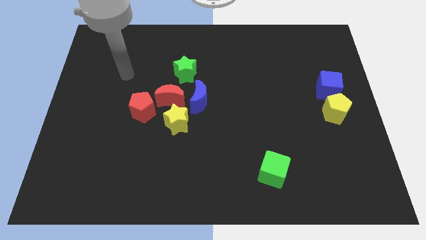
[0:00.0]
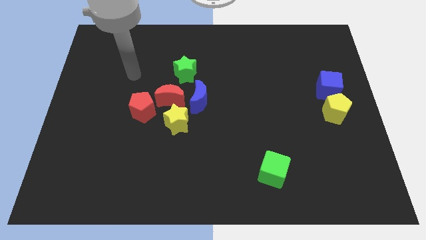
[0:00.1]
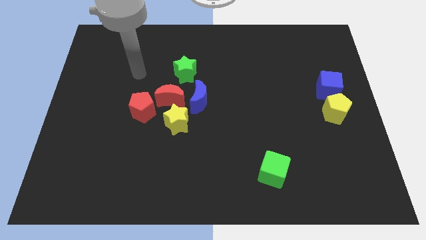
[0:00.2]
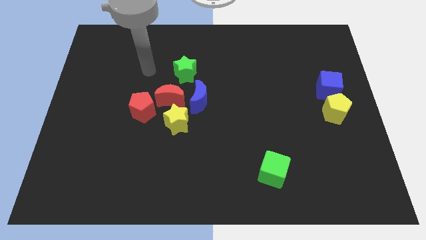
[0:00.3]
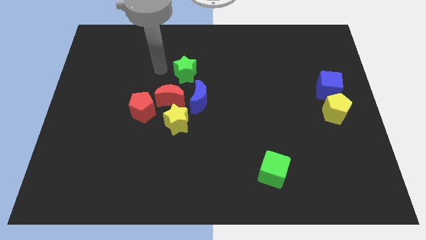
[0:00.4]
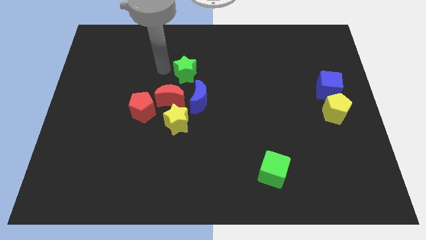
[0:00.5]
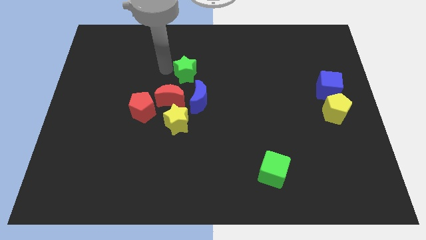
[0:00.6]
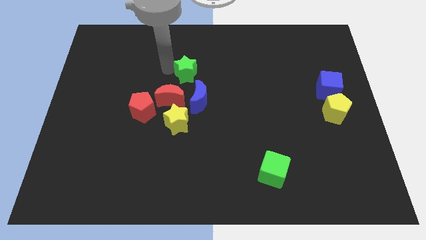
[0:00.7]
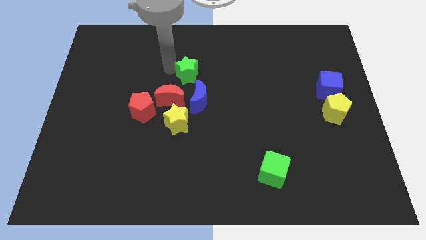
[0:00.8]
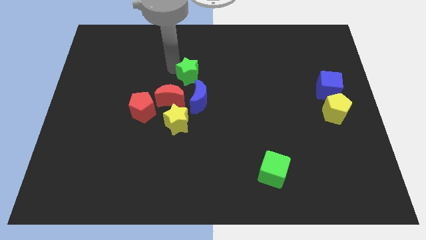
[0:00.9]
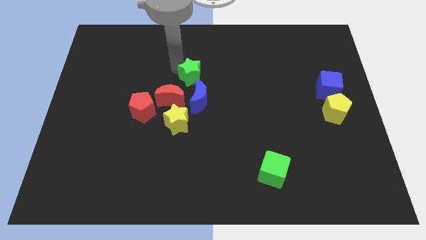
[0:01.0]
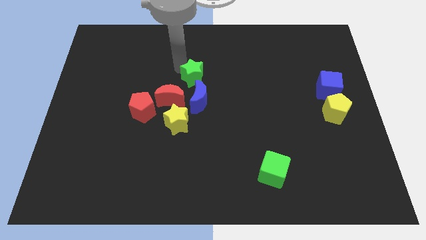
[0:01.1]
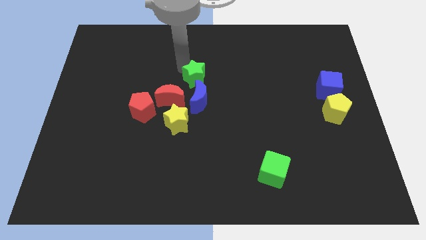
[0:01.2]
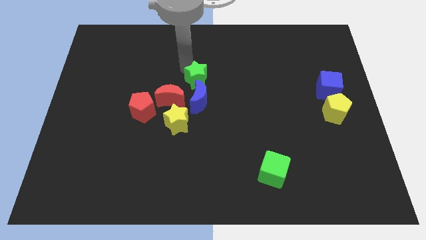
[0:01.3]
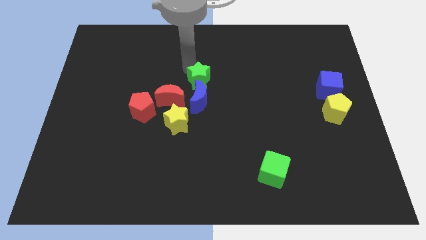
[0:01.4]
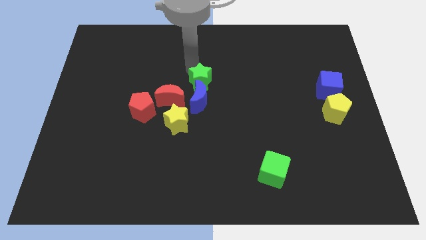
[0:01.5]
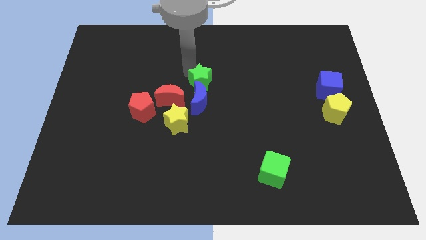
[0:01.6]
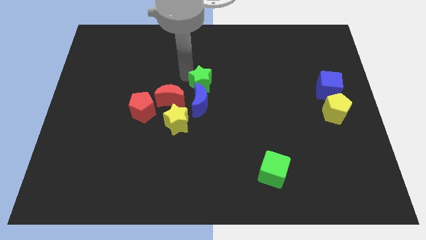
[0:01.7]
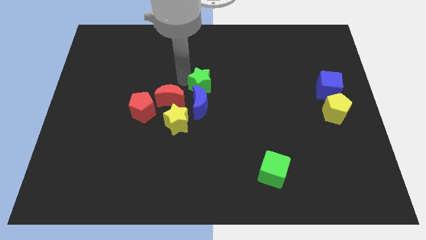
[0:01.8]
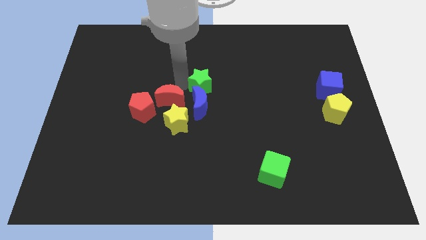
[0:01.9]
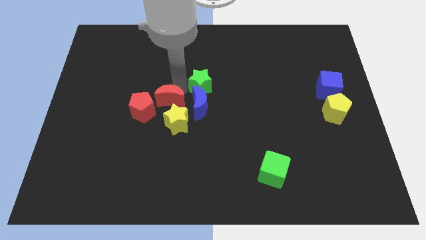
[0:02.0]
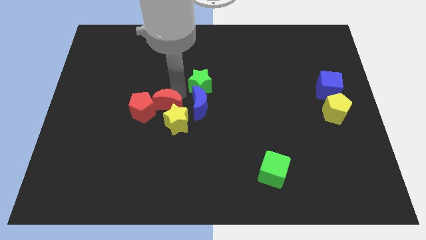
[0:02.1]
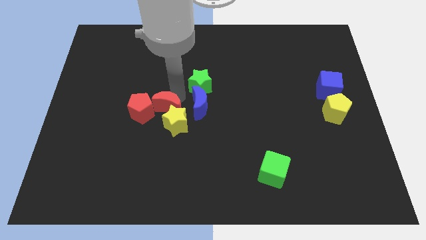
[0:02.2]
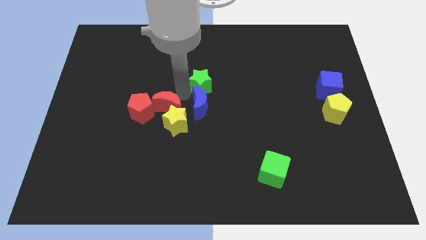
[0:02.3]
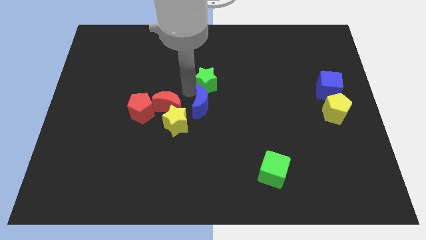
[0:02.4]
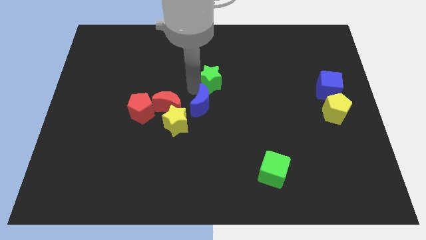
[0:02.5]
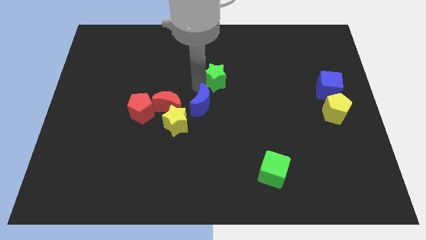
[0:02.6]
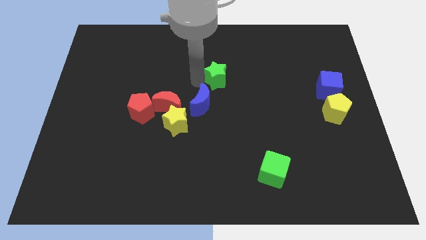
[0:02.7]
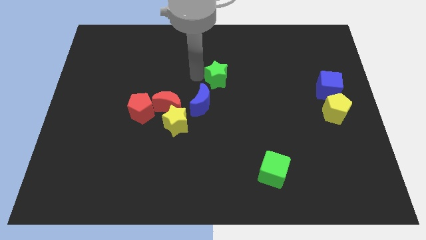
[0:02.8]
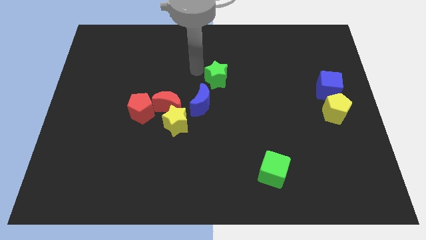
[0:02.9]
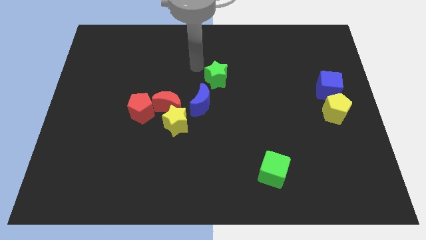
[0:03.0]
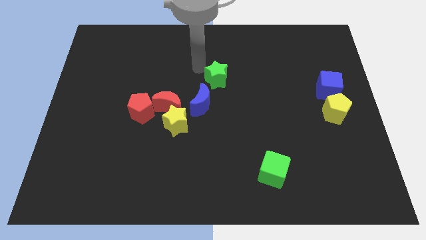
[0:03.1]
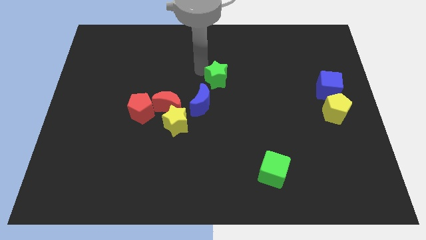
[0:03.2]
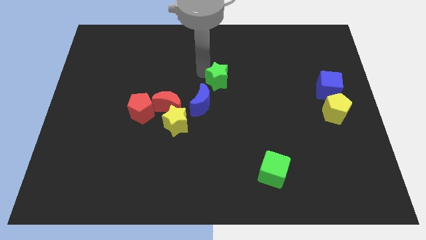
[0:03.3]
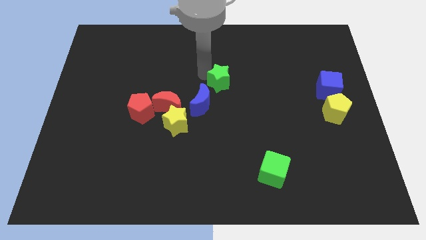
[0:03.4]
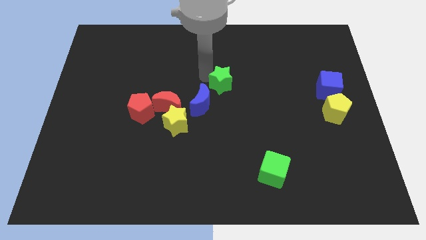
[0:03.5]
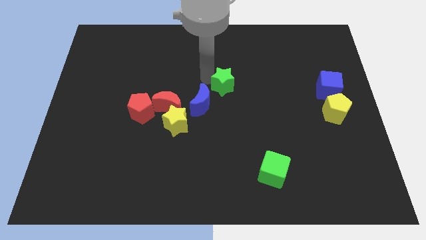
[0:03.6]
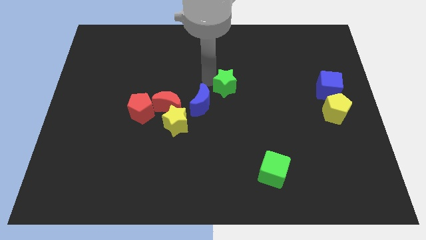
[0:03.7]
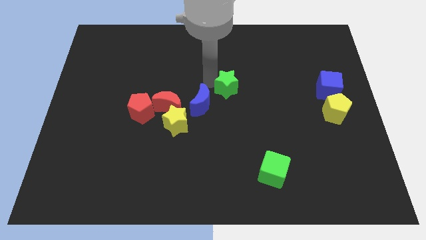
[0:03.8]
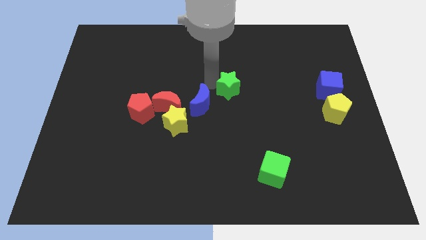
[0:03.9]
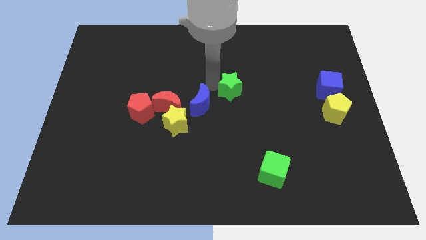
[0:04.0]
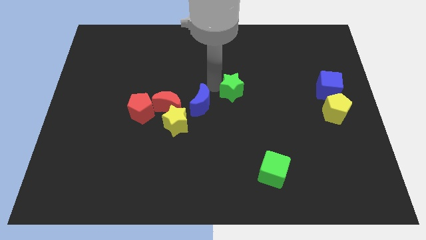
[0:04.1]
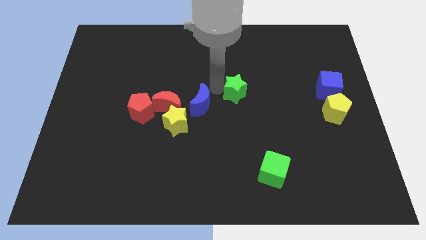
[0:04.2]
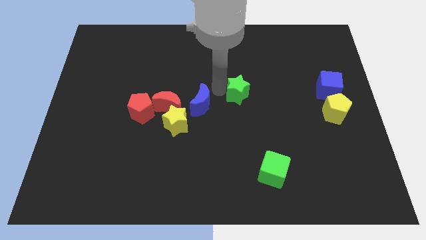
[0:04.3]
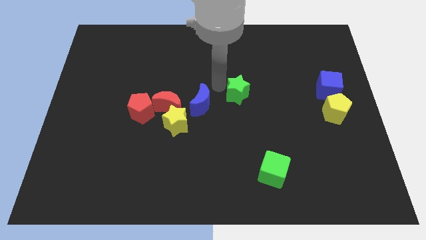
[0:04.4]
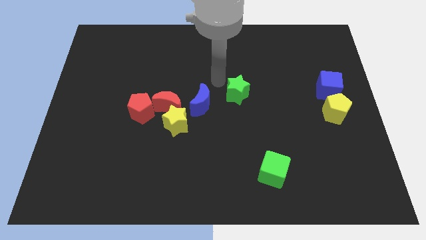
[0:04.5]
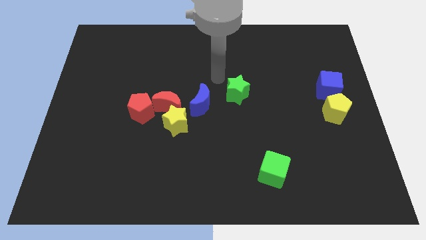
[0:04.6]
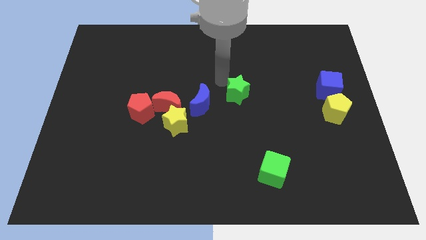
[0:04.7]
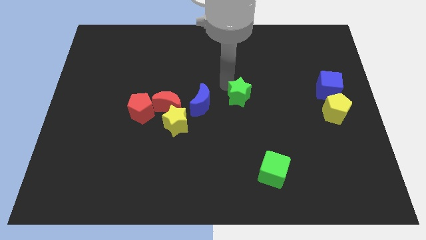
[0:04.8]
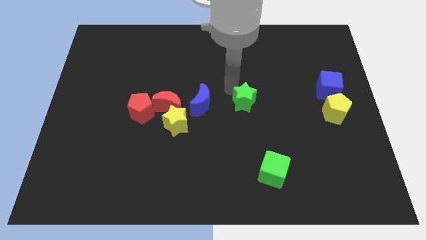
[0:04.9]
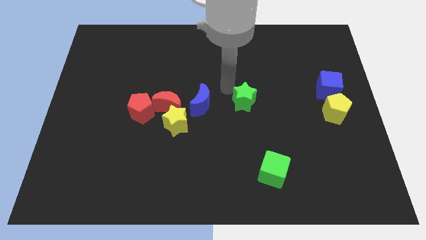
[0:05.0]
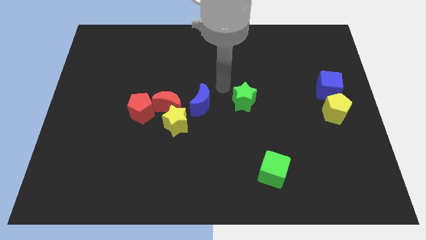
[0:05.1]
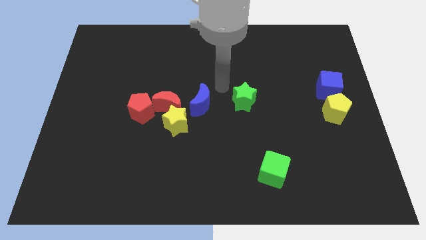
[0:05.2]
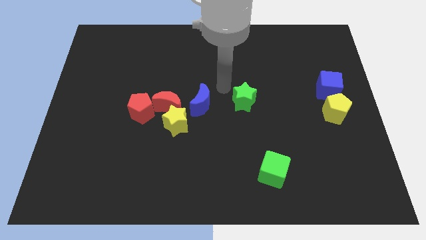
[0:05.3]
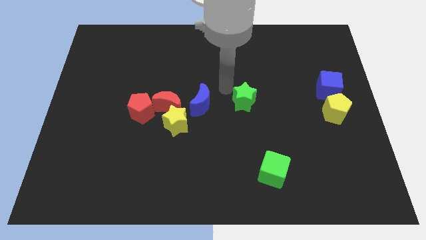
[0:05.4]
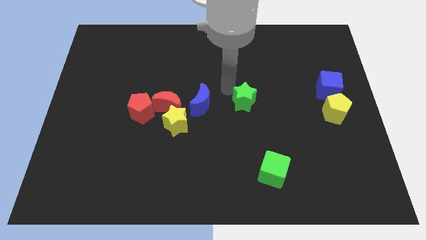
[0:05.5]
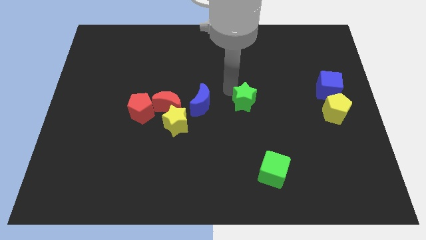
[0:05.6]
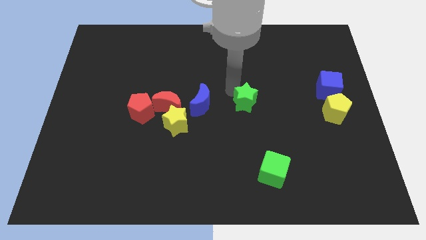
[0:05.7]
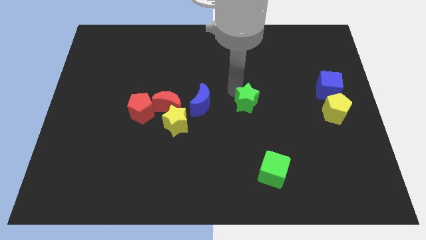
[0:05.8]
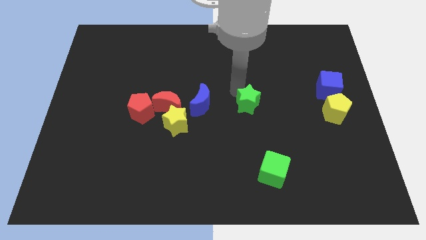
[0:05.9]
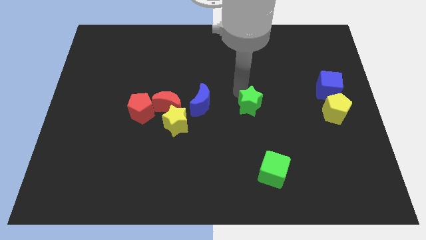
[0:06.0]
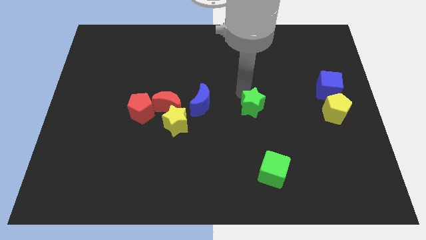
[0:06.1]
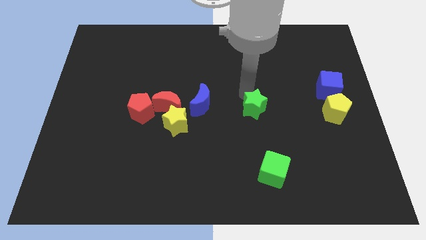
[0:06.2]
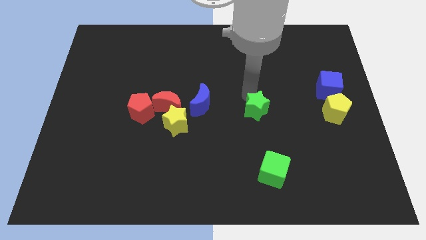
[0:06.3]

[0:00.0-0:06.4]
move the green star down and to the right diagonally

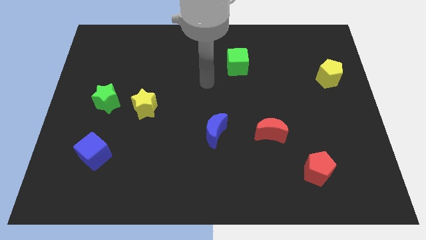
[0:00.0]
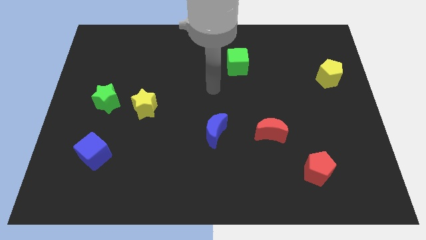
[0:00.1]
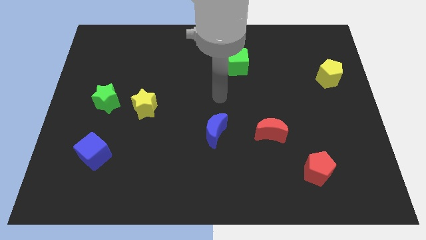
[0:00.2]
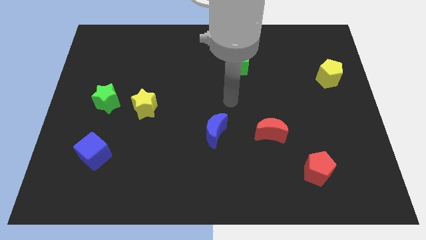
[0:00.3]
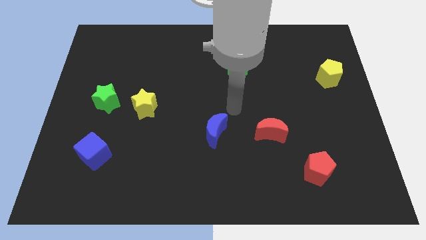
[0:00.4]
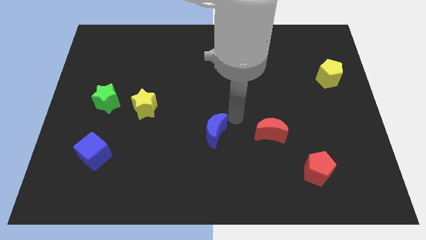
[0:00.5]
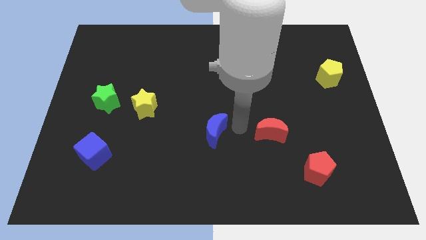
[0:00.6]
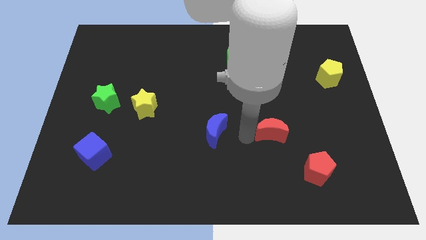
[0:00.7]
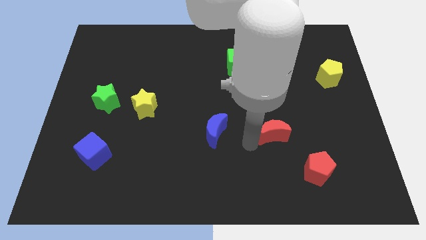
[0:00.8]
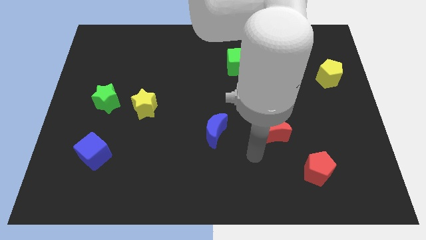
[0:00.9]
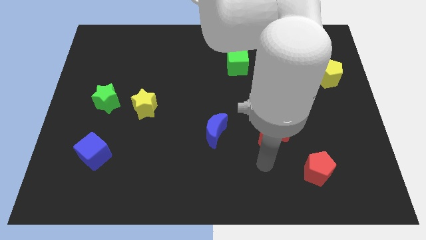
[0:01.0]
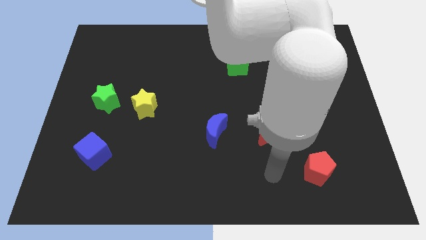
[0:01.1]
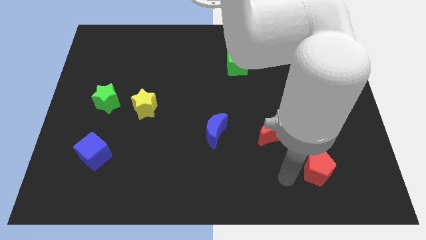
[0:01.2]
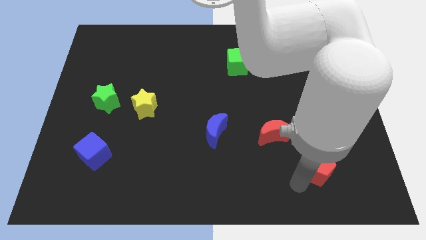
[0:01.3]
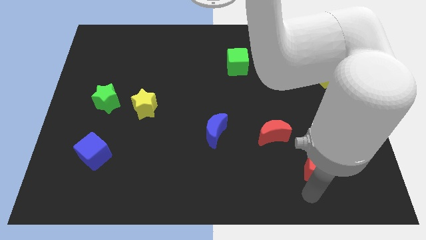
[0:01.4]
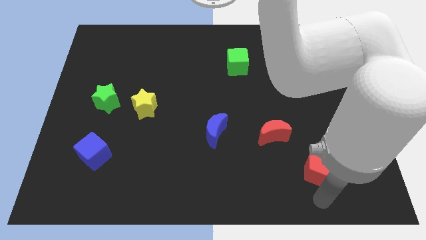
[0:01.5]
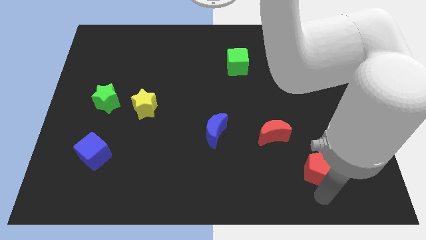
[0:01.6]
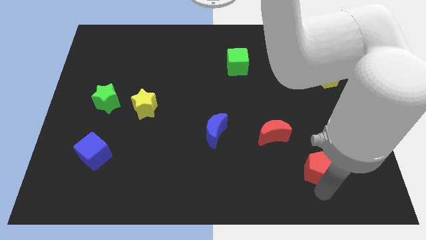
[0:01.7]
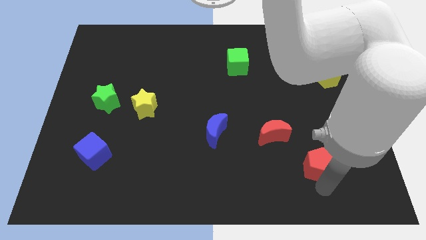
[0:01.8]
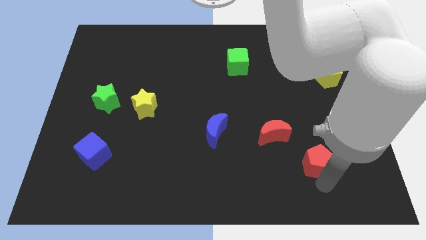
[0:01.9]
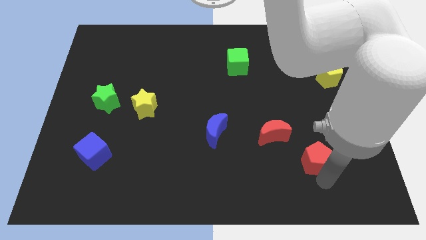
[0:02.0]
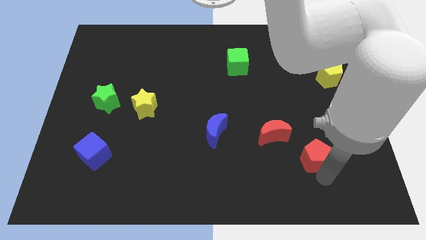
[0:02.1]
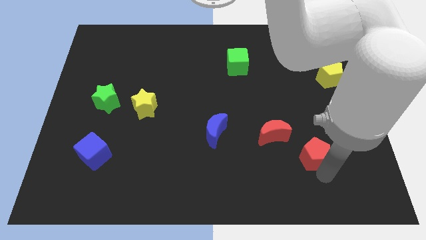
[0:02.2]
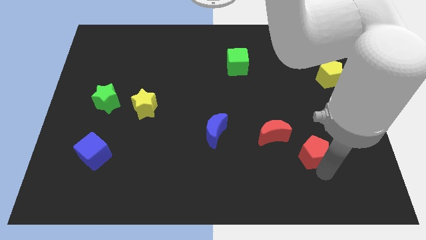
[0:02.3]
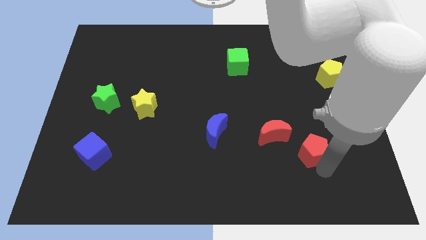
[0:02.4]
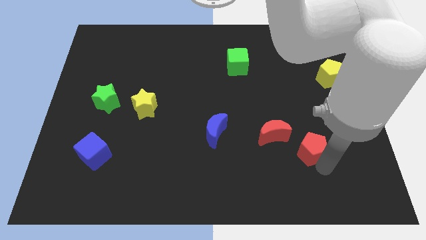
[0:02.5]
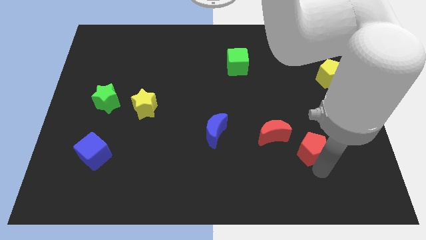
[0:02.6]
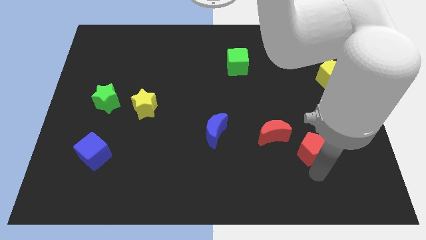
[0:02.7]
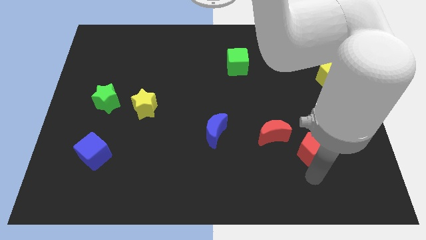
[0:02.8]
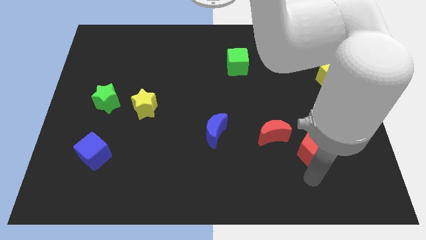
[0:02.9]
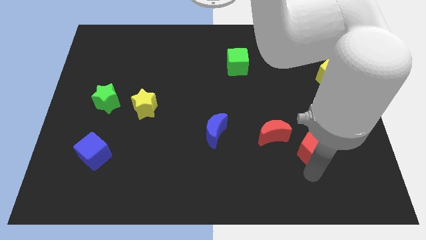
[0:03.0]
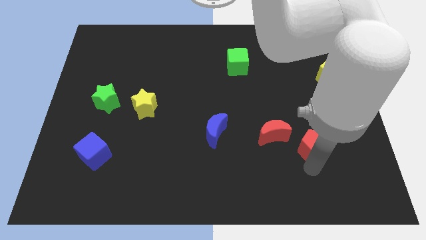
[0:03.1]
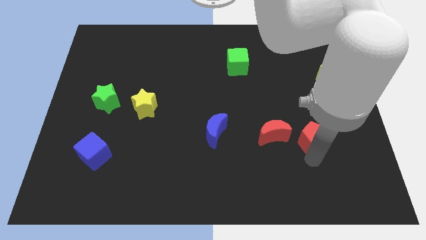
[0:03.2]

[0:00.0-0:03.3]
move the red pentagon a bit up
